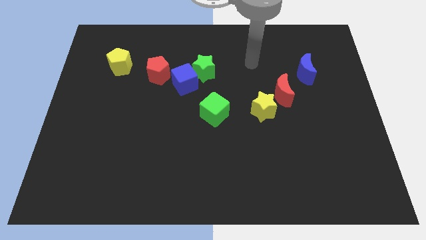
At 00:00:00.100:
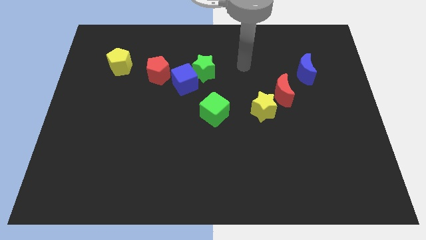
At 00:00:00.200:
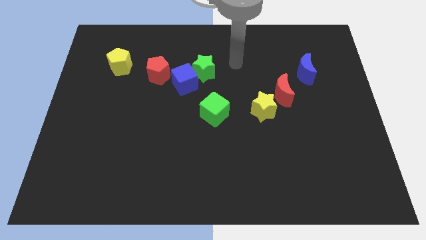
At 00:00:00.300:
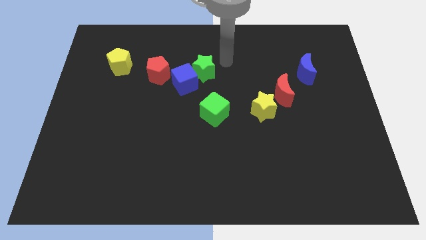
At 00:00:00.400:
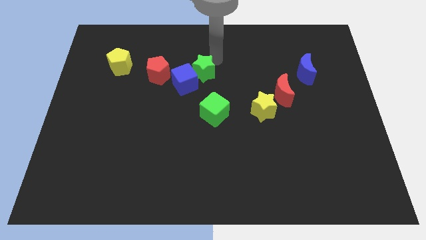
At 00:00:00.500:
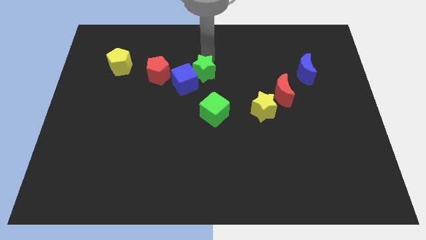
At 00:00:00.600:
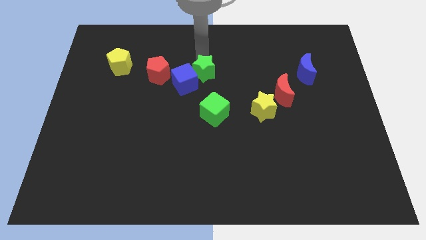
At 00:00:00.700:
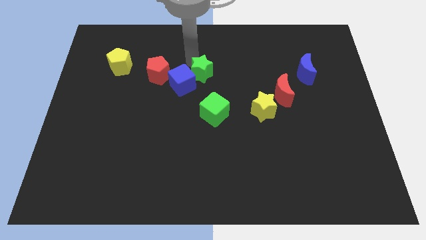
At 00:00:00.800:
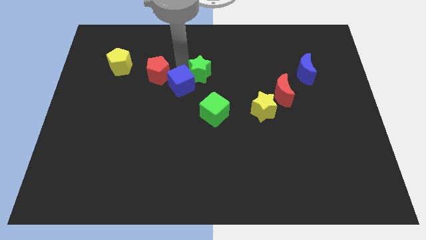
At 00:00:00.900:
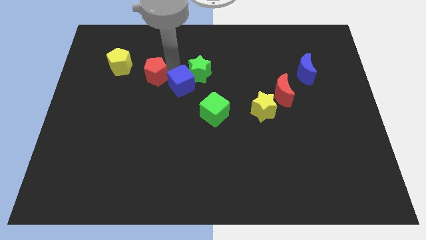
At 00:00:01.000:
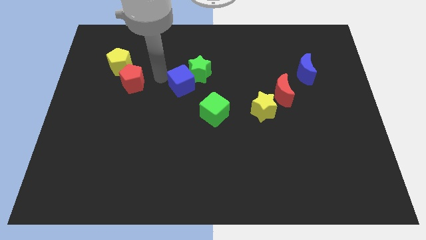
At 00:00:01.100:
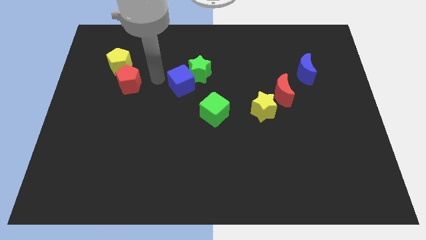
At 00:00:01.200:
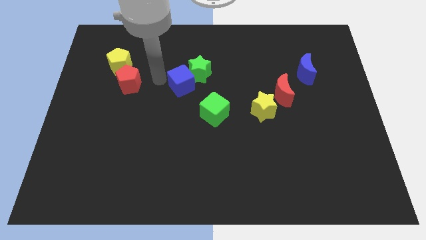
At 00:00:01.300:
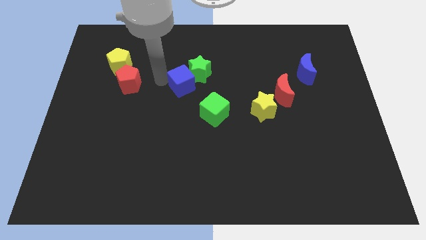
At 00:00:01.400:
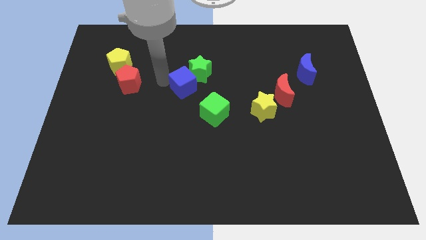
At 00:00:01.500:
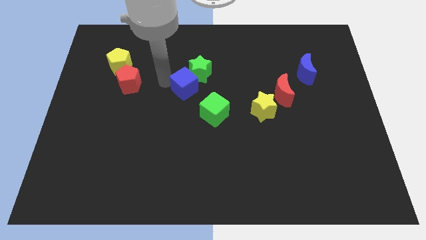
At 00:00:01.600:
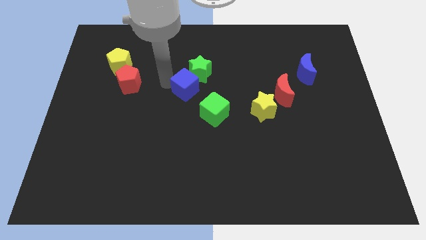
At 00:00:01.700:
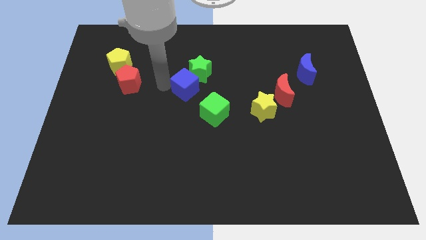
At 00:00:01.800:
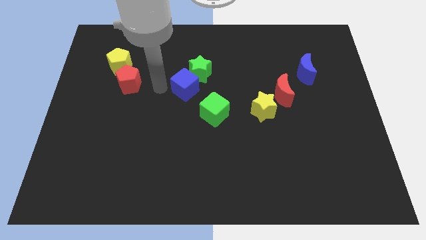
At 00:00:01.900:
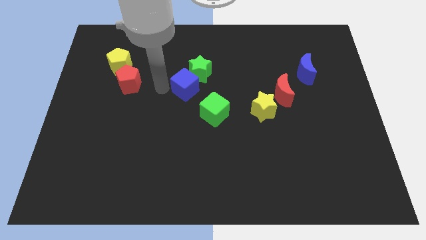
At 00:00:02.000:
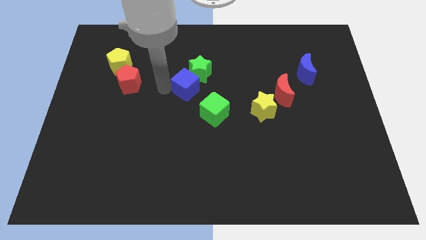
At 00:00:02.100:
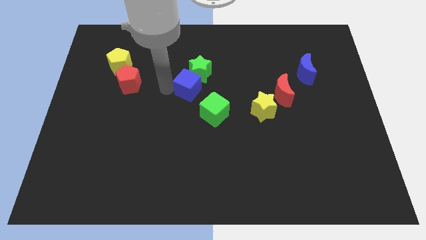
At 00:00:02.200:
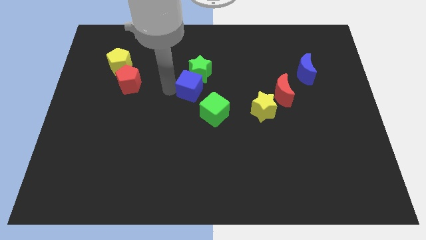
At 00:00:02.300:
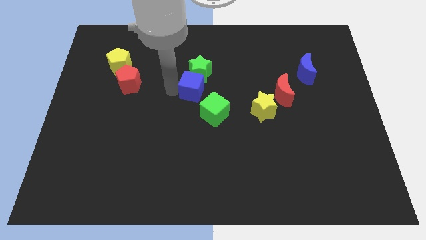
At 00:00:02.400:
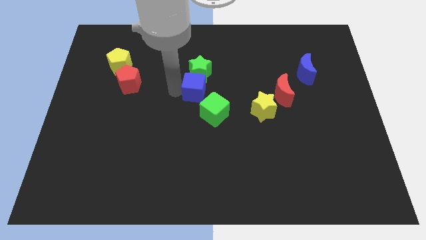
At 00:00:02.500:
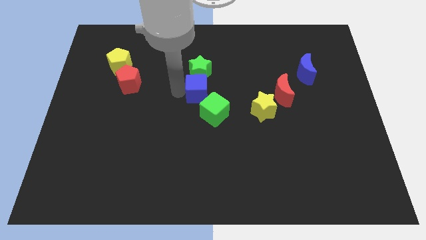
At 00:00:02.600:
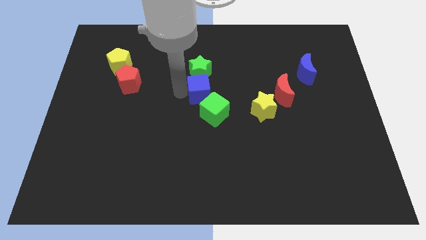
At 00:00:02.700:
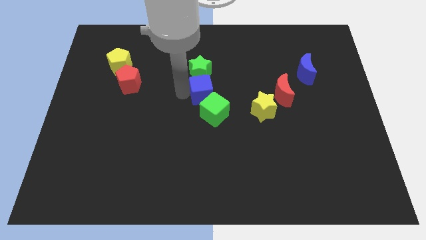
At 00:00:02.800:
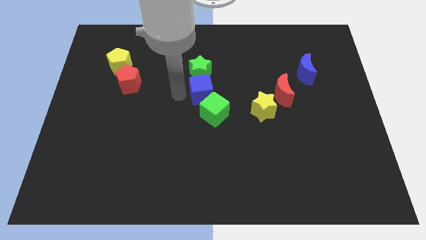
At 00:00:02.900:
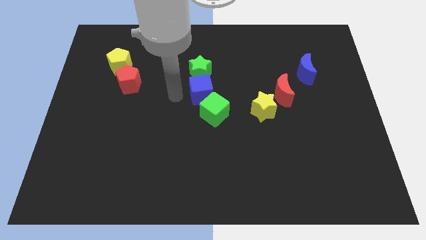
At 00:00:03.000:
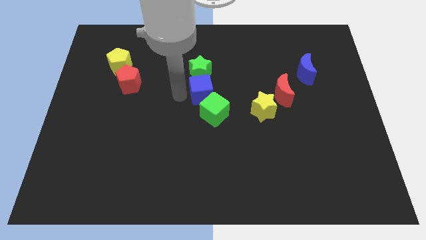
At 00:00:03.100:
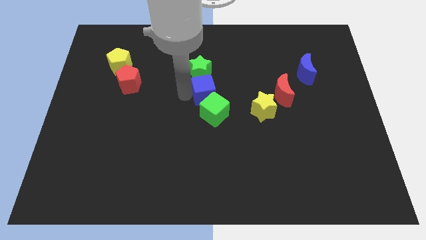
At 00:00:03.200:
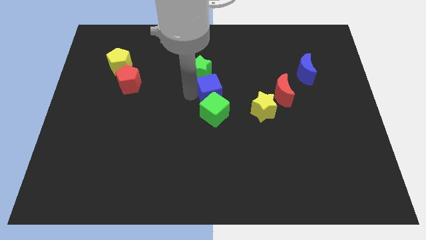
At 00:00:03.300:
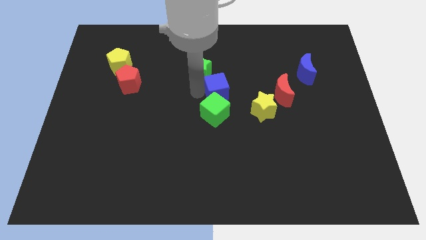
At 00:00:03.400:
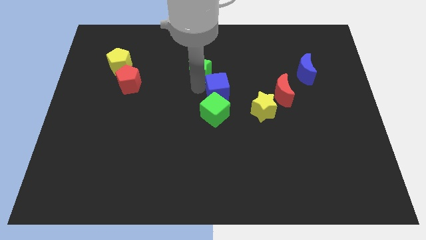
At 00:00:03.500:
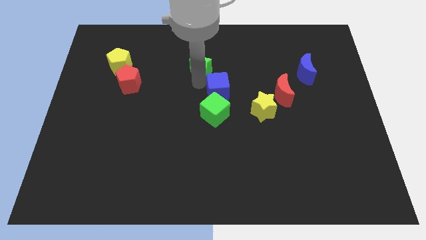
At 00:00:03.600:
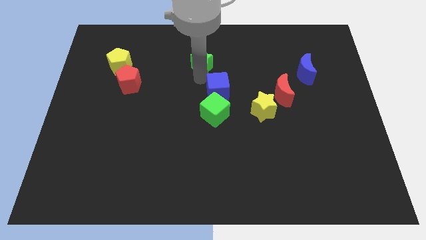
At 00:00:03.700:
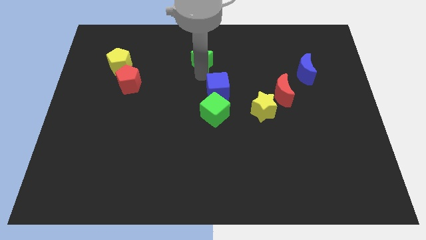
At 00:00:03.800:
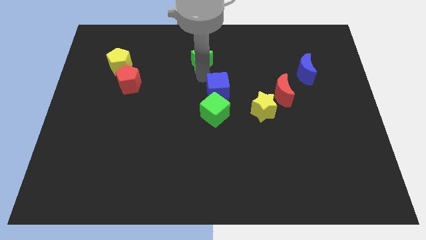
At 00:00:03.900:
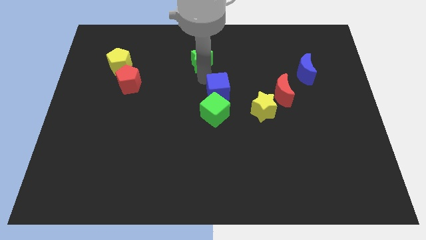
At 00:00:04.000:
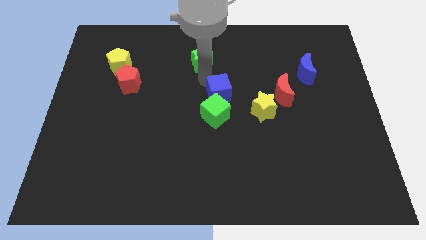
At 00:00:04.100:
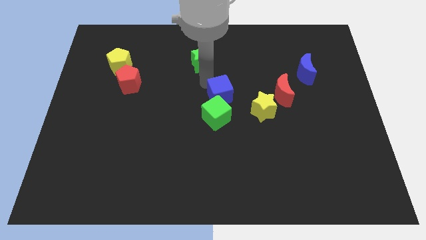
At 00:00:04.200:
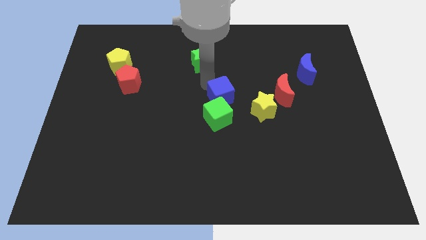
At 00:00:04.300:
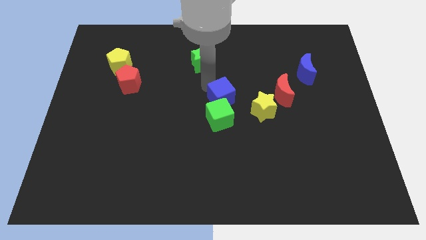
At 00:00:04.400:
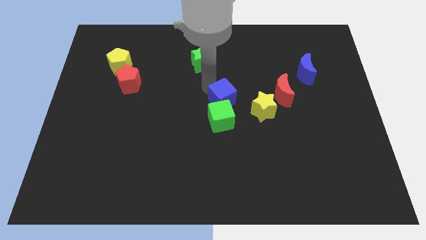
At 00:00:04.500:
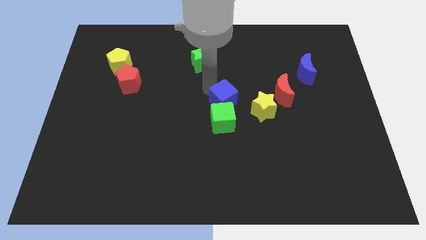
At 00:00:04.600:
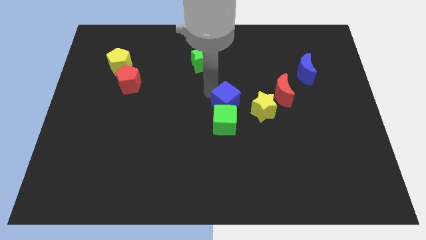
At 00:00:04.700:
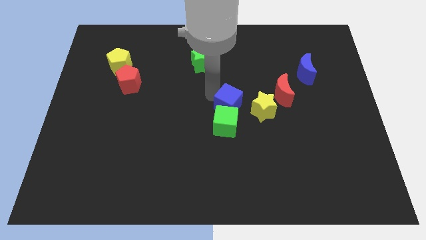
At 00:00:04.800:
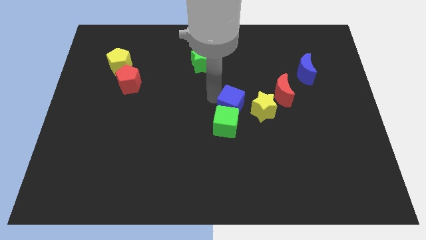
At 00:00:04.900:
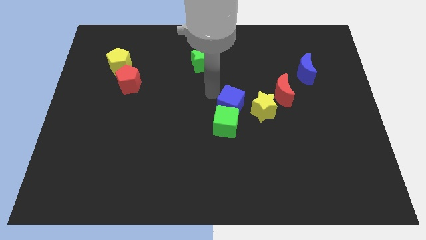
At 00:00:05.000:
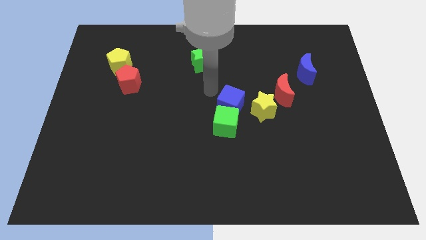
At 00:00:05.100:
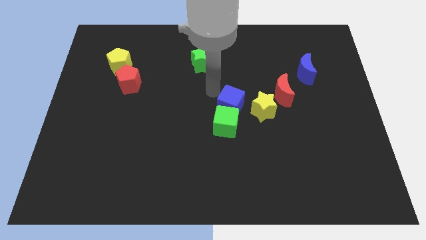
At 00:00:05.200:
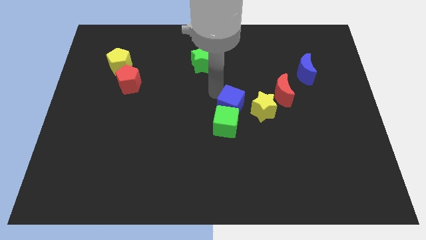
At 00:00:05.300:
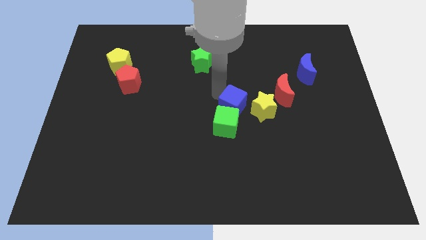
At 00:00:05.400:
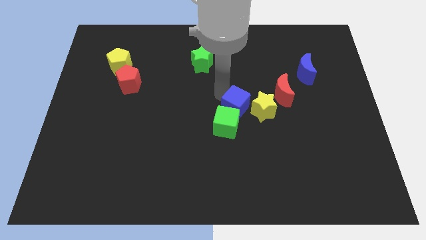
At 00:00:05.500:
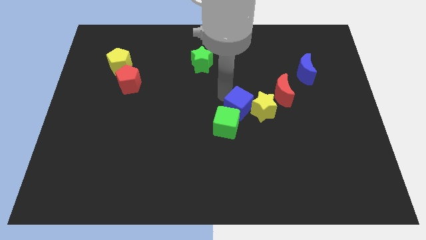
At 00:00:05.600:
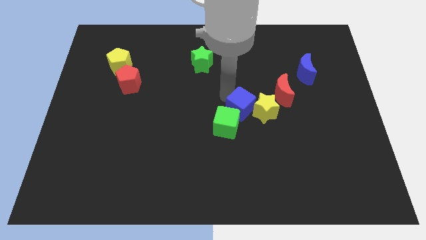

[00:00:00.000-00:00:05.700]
move the blue cube to the bottom left of the red moon
